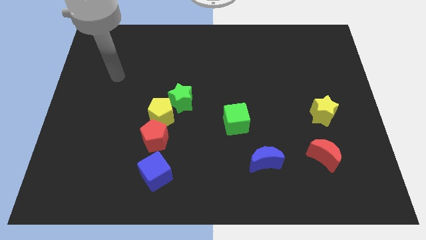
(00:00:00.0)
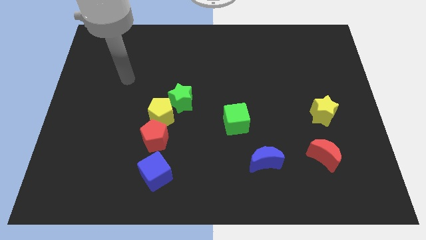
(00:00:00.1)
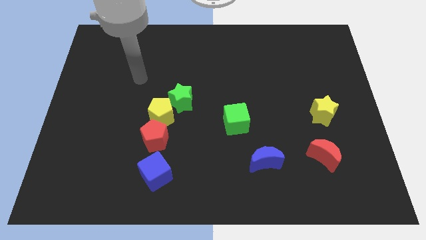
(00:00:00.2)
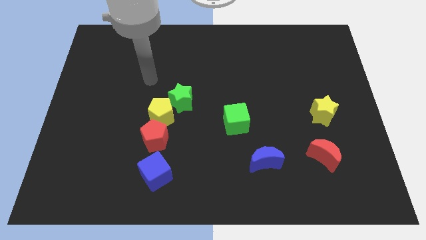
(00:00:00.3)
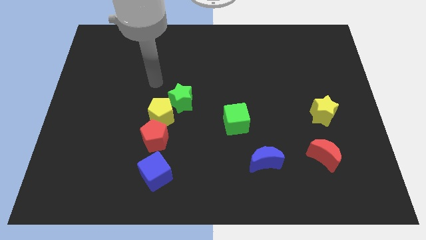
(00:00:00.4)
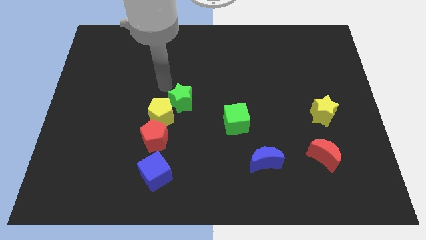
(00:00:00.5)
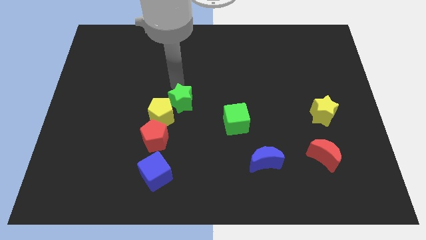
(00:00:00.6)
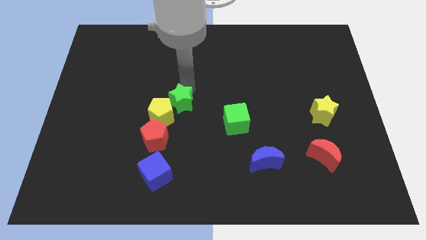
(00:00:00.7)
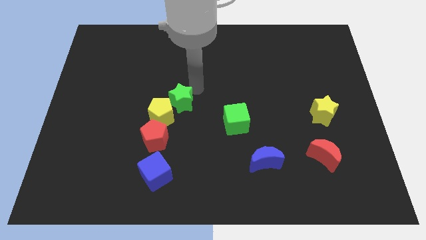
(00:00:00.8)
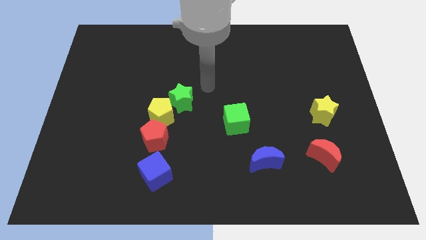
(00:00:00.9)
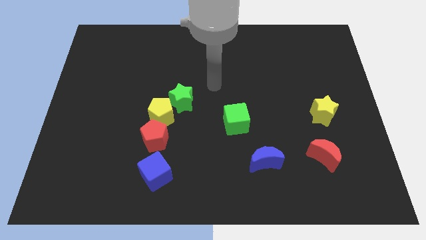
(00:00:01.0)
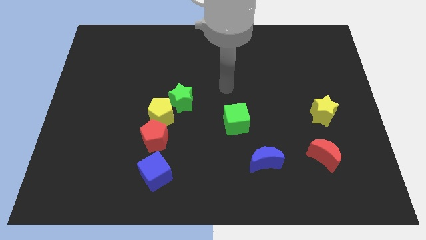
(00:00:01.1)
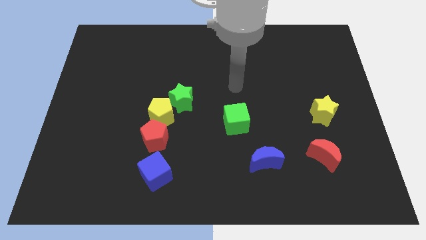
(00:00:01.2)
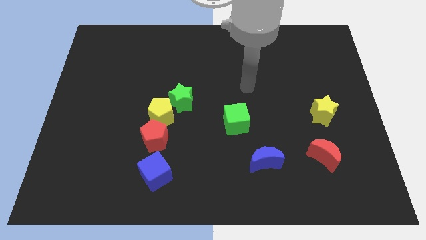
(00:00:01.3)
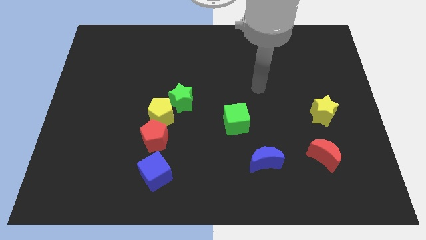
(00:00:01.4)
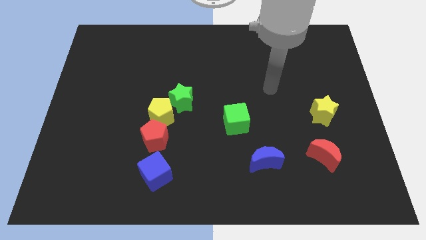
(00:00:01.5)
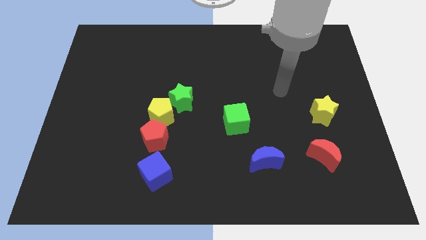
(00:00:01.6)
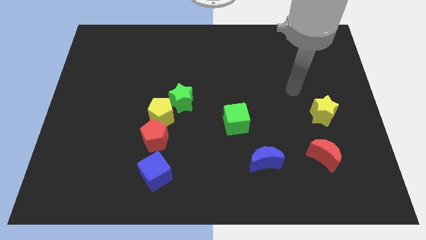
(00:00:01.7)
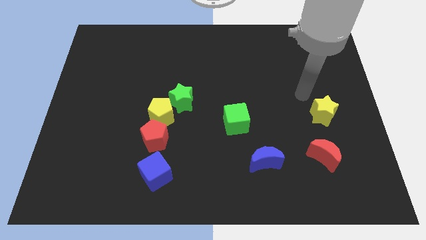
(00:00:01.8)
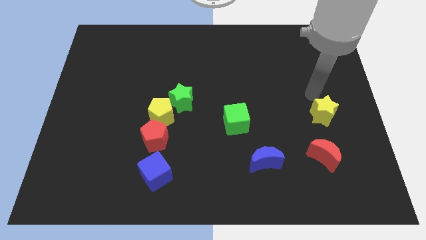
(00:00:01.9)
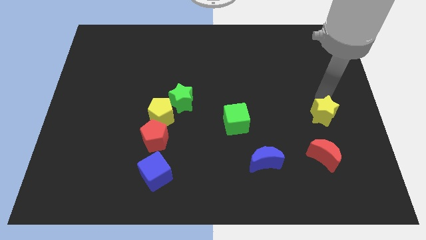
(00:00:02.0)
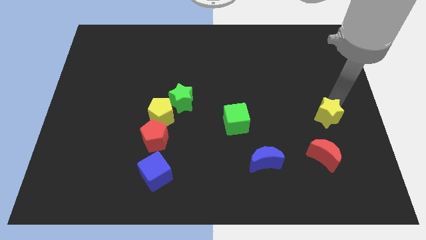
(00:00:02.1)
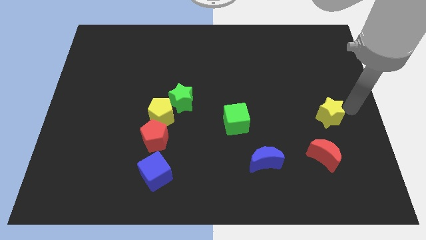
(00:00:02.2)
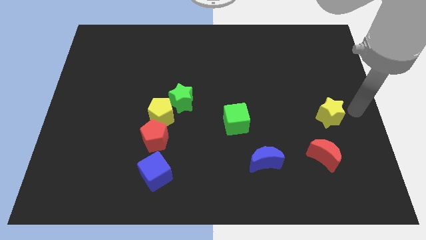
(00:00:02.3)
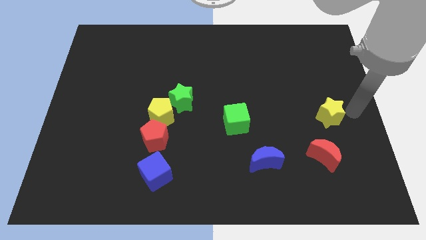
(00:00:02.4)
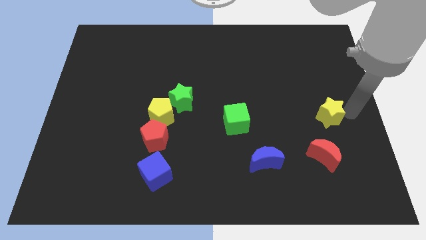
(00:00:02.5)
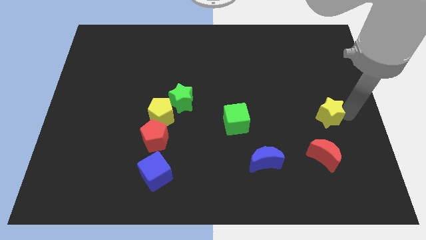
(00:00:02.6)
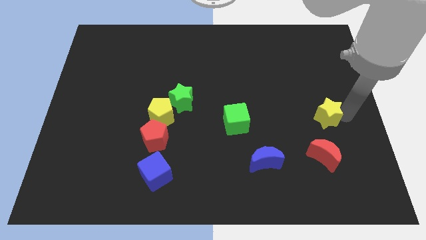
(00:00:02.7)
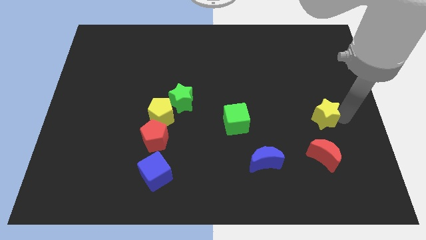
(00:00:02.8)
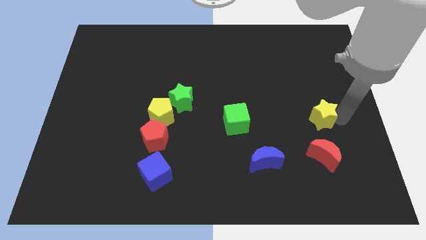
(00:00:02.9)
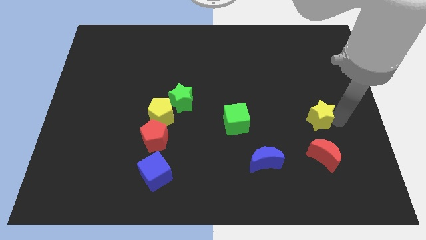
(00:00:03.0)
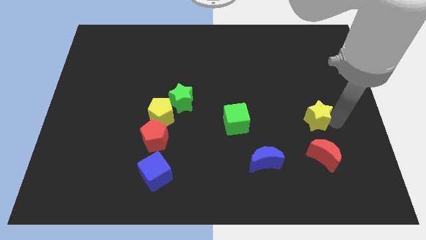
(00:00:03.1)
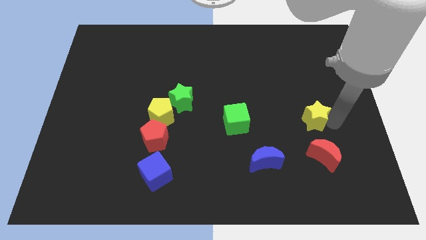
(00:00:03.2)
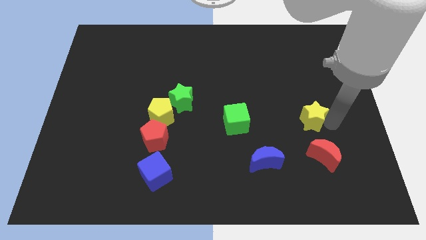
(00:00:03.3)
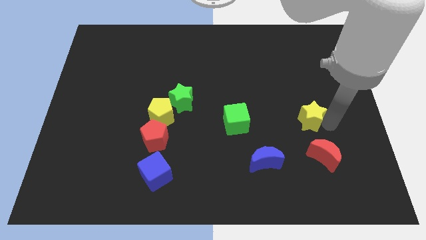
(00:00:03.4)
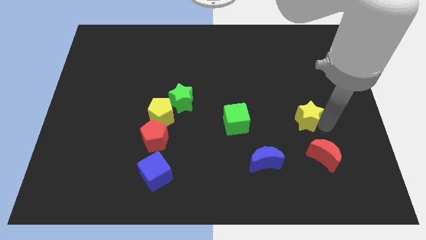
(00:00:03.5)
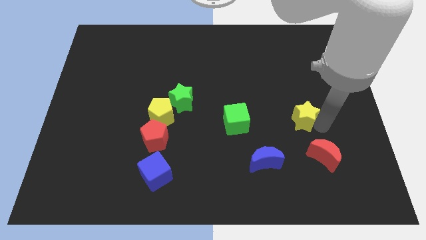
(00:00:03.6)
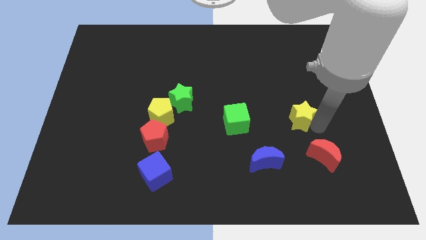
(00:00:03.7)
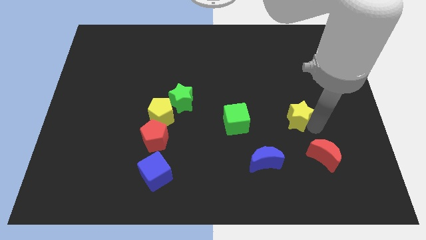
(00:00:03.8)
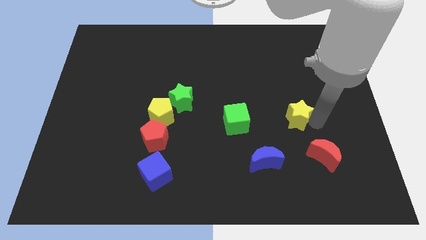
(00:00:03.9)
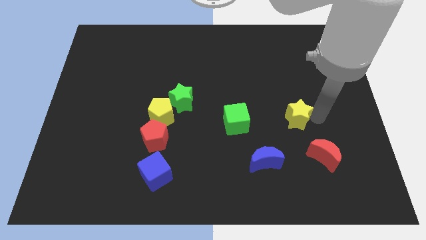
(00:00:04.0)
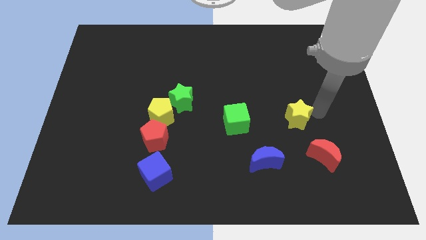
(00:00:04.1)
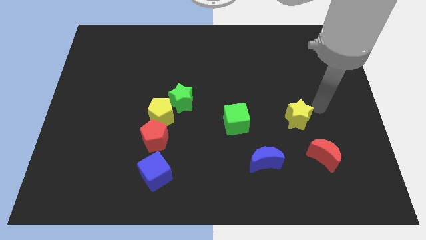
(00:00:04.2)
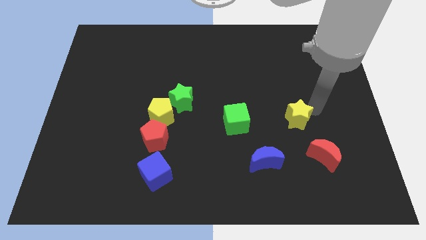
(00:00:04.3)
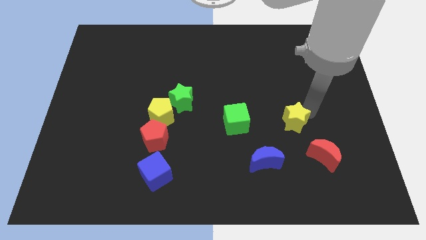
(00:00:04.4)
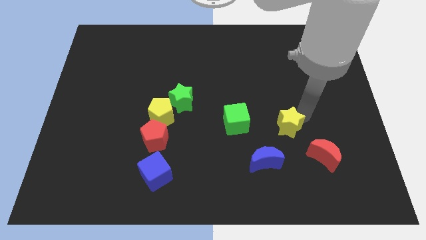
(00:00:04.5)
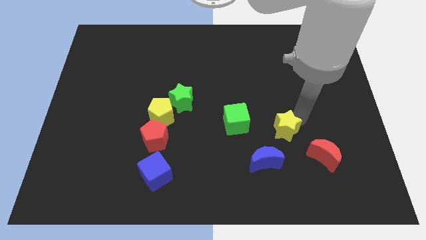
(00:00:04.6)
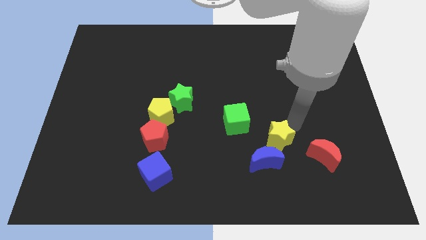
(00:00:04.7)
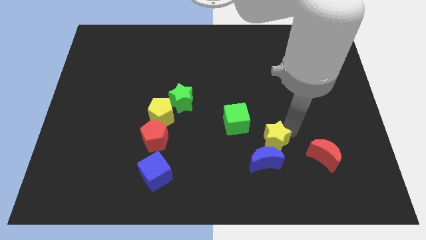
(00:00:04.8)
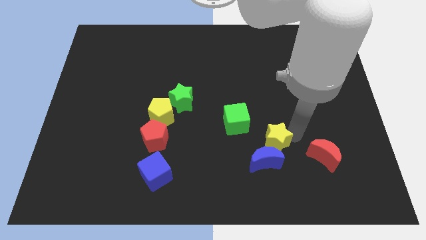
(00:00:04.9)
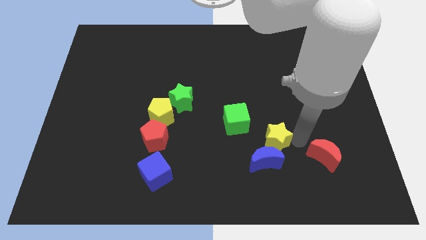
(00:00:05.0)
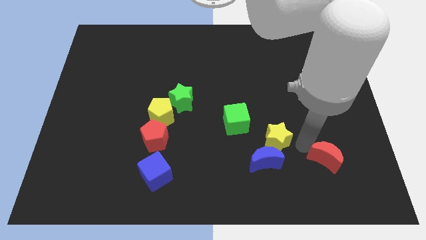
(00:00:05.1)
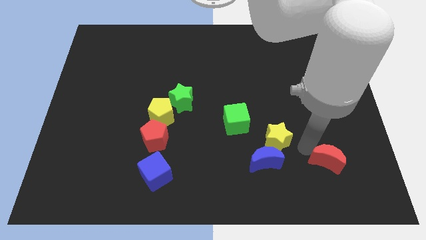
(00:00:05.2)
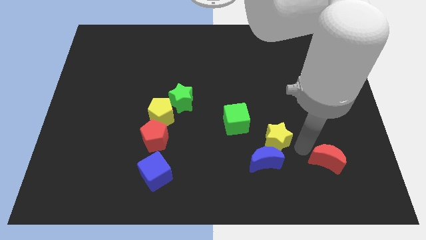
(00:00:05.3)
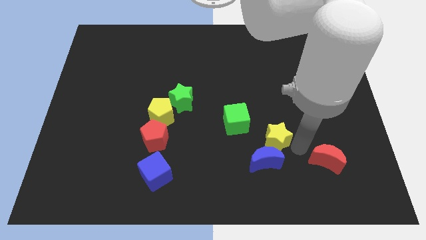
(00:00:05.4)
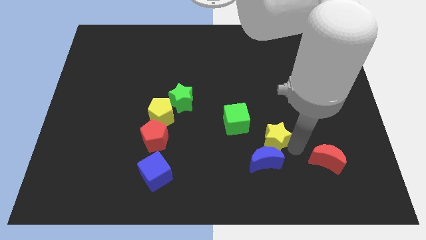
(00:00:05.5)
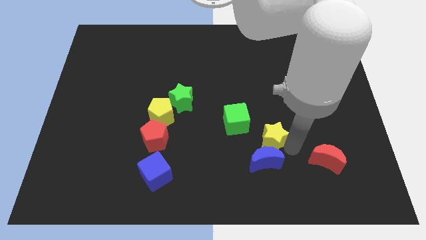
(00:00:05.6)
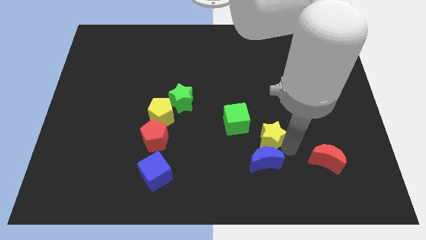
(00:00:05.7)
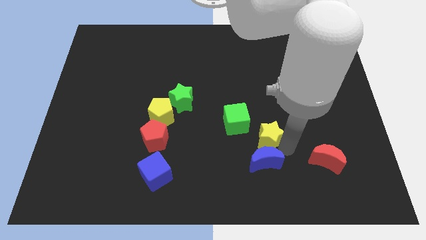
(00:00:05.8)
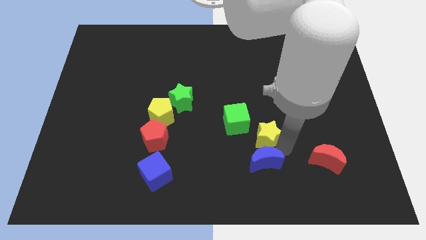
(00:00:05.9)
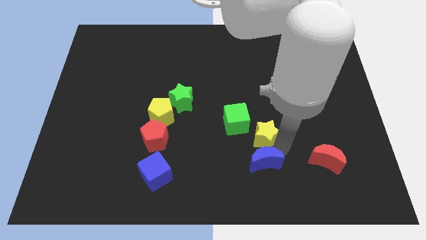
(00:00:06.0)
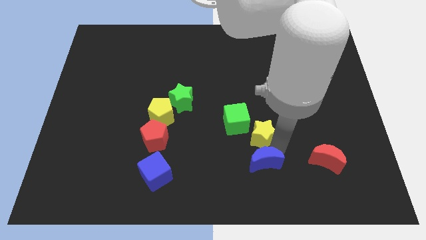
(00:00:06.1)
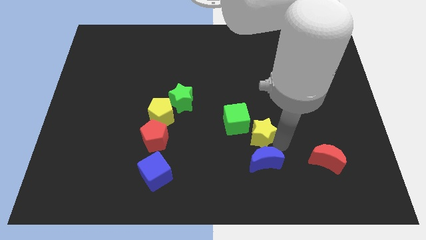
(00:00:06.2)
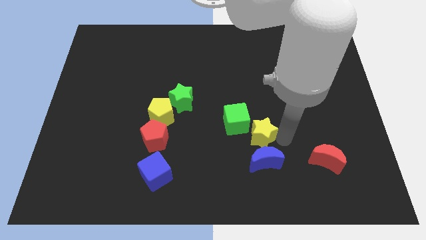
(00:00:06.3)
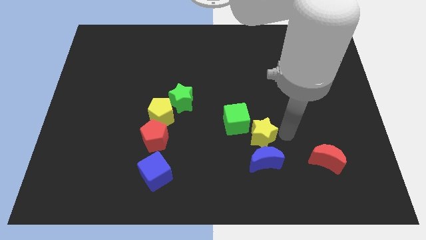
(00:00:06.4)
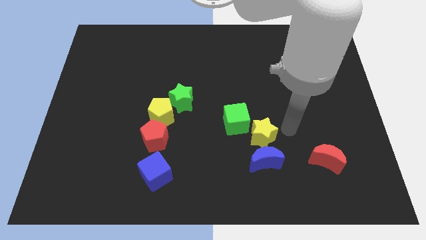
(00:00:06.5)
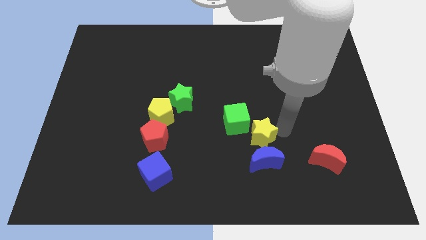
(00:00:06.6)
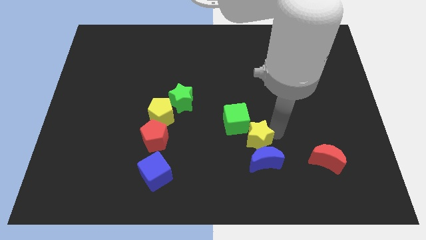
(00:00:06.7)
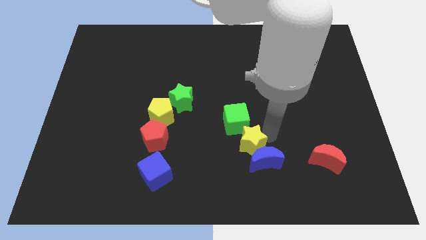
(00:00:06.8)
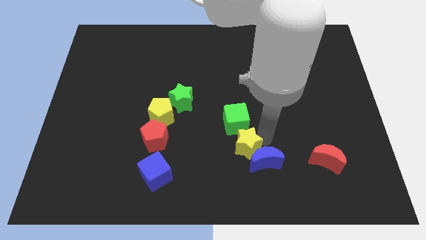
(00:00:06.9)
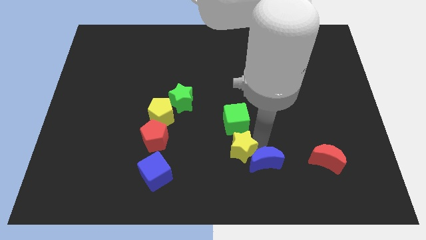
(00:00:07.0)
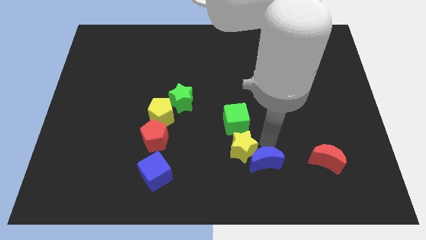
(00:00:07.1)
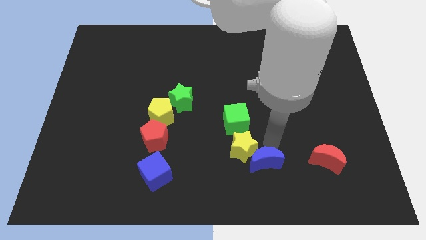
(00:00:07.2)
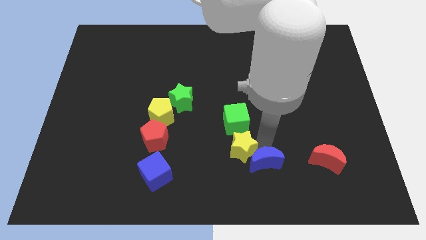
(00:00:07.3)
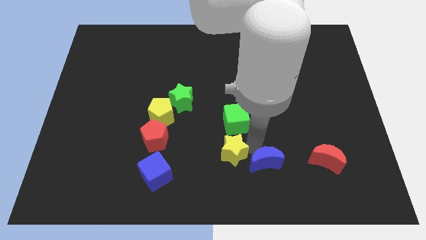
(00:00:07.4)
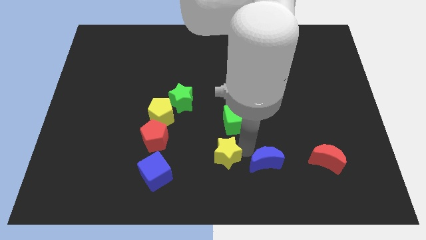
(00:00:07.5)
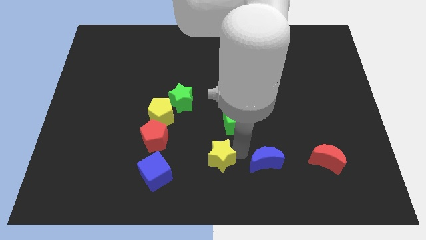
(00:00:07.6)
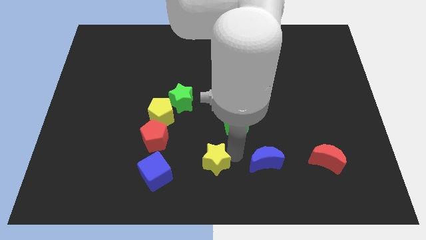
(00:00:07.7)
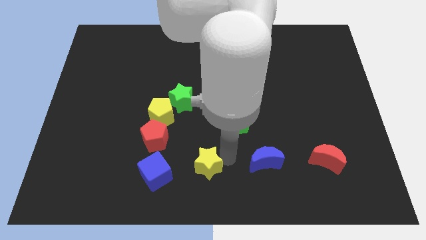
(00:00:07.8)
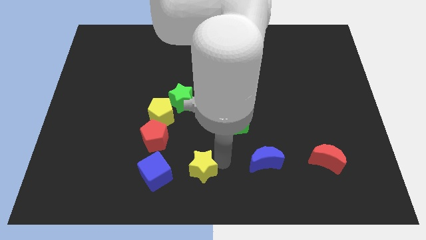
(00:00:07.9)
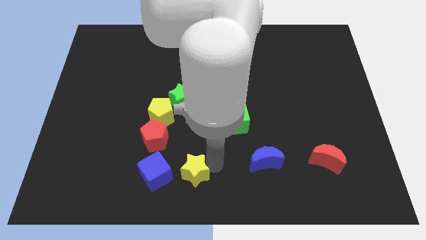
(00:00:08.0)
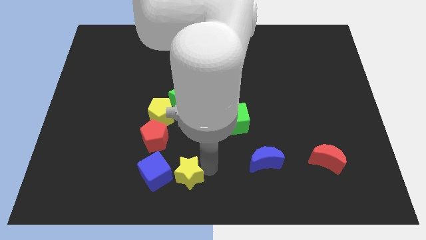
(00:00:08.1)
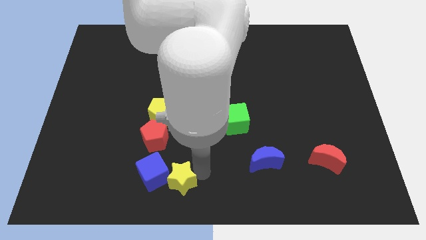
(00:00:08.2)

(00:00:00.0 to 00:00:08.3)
slide the yellow star to the blue cube
